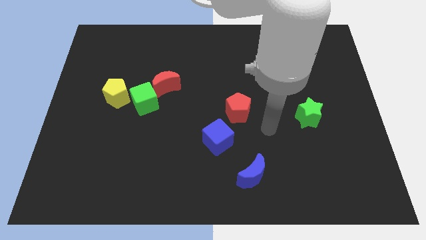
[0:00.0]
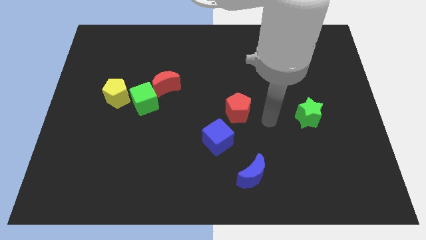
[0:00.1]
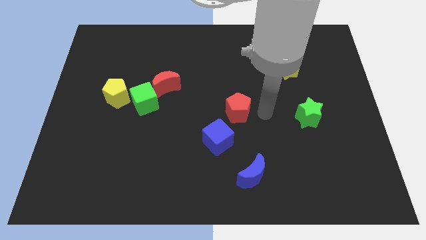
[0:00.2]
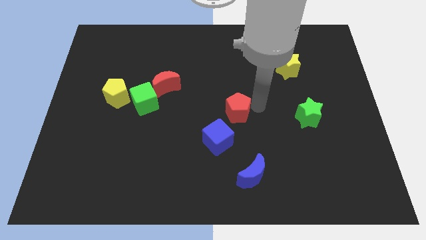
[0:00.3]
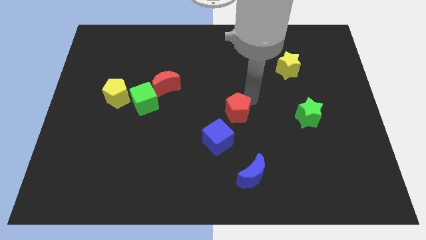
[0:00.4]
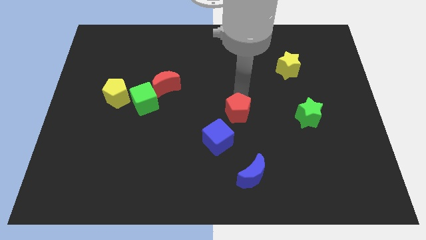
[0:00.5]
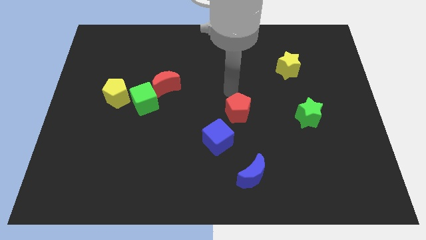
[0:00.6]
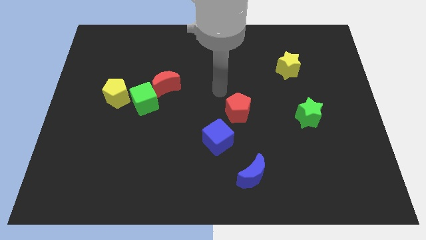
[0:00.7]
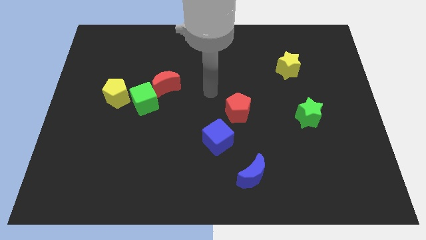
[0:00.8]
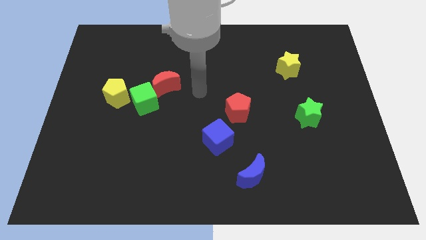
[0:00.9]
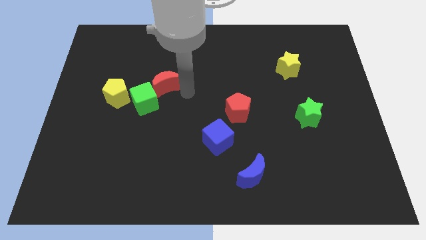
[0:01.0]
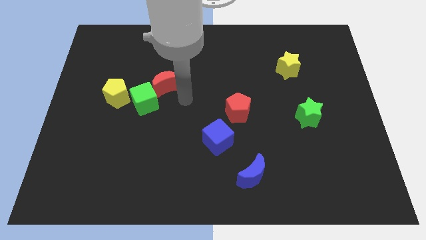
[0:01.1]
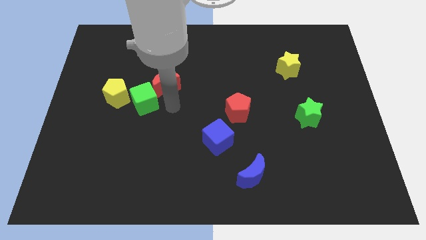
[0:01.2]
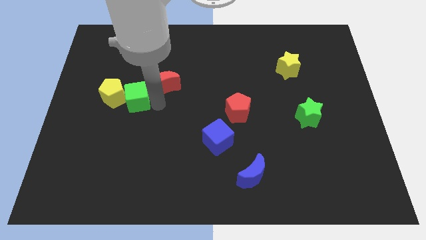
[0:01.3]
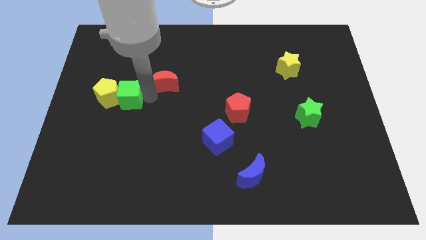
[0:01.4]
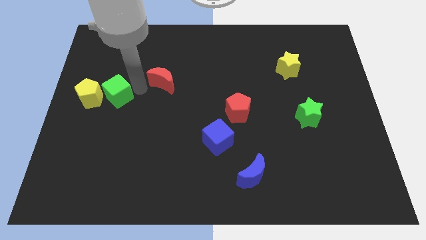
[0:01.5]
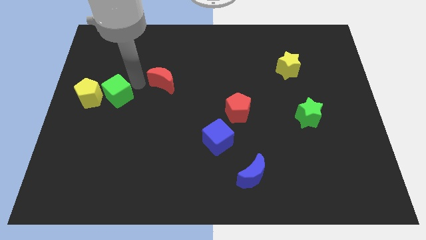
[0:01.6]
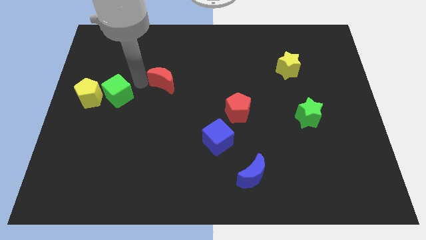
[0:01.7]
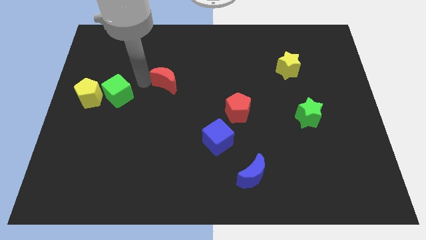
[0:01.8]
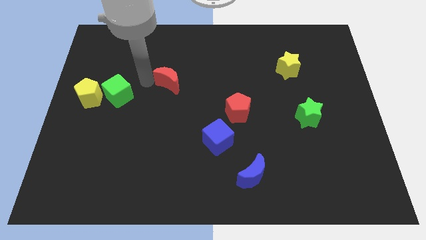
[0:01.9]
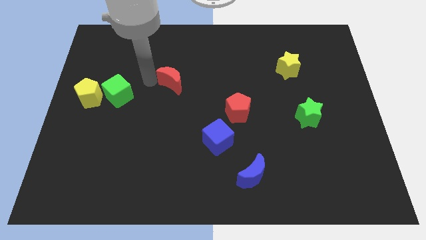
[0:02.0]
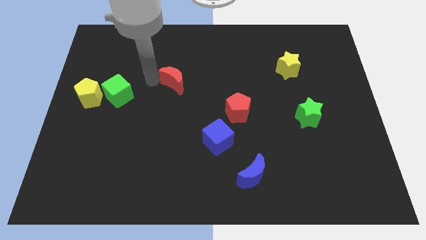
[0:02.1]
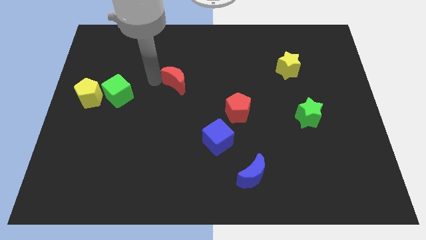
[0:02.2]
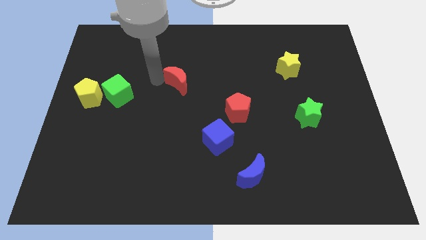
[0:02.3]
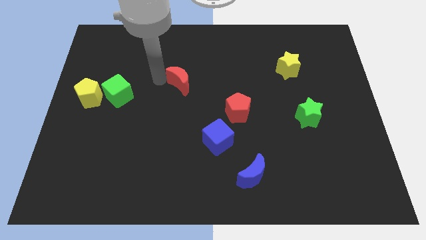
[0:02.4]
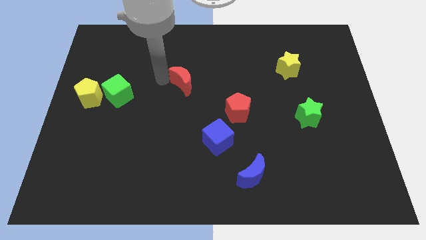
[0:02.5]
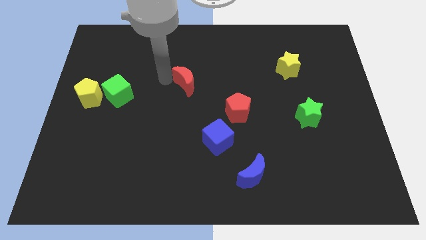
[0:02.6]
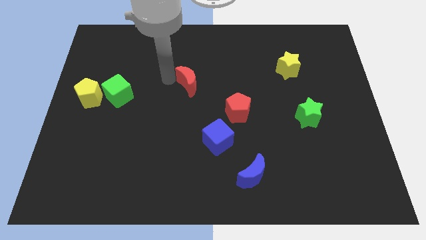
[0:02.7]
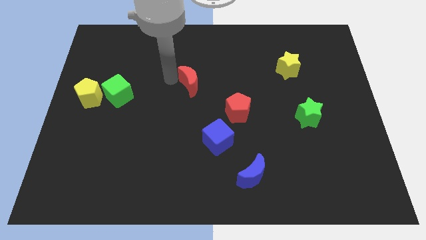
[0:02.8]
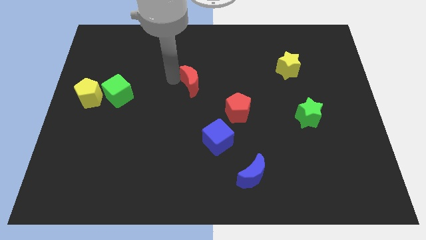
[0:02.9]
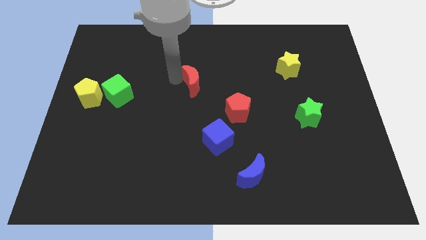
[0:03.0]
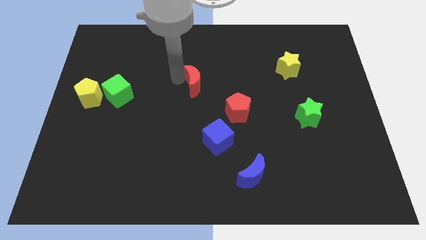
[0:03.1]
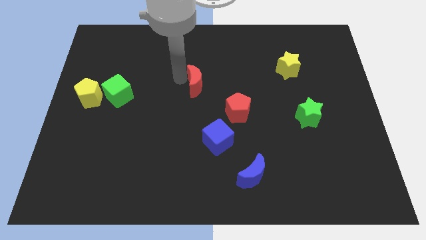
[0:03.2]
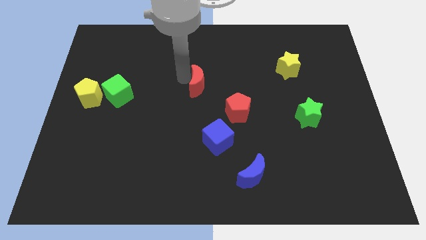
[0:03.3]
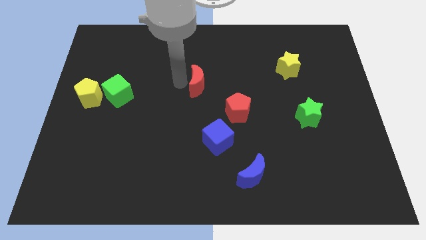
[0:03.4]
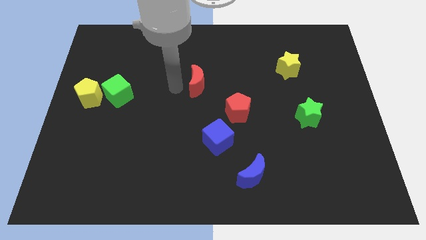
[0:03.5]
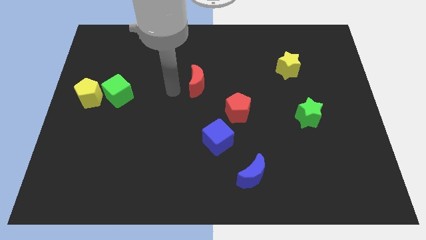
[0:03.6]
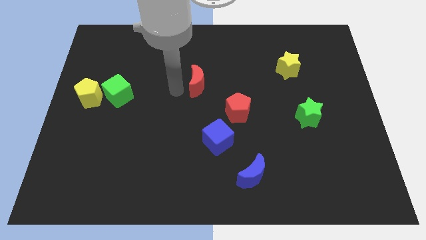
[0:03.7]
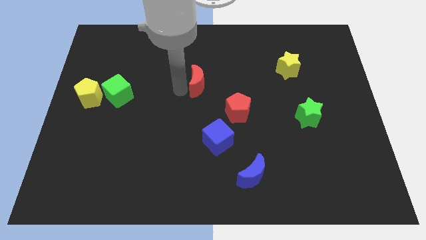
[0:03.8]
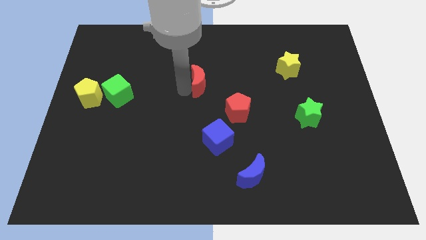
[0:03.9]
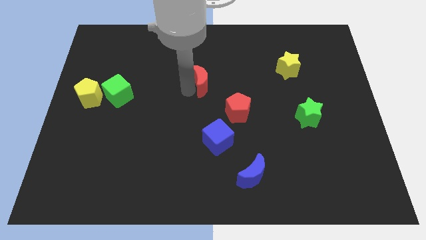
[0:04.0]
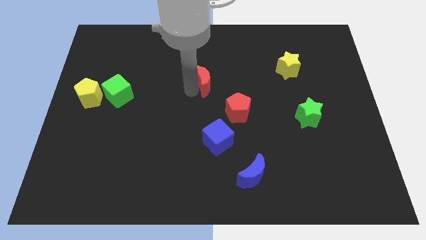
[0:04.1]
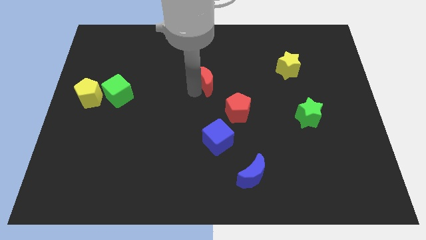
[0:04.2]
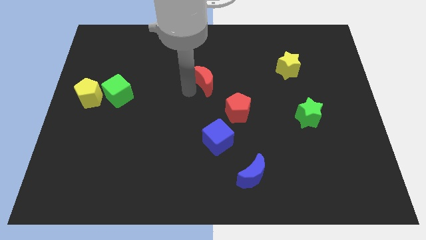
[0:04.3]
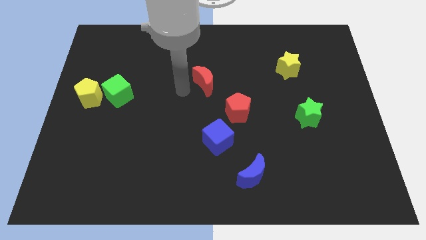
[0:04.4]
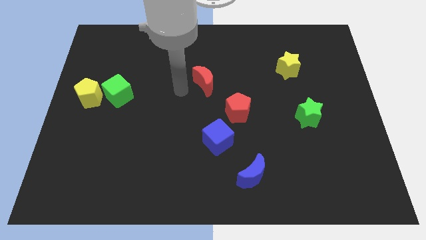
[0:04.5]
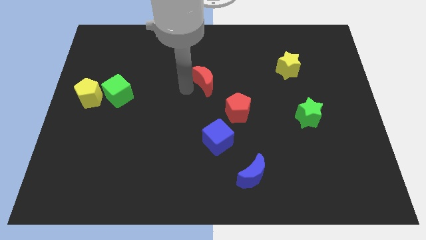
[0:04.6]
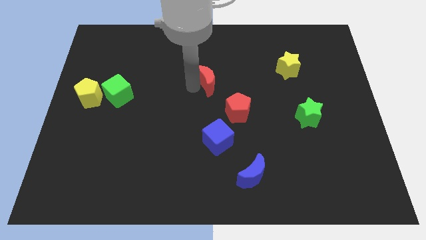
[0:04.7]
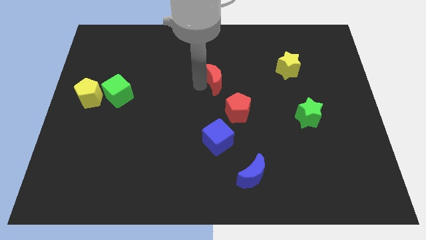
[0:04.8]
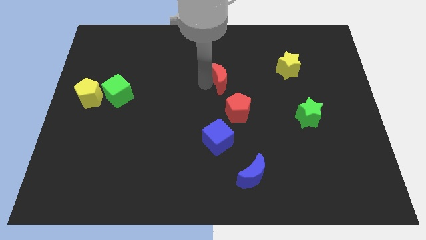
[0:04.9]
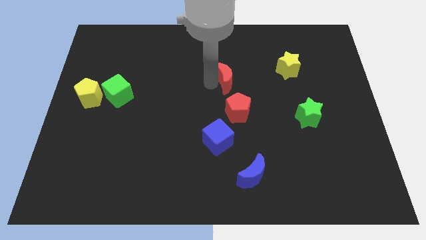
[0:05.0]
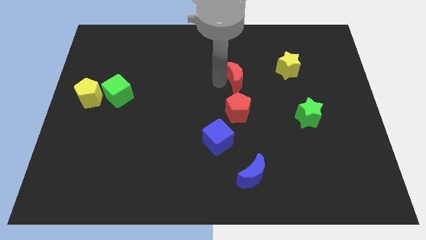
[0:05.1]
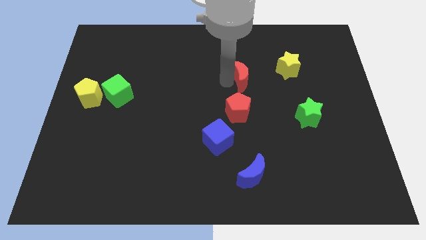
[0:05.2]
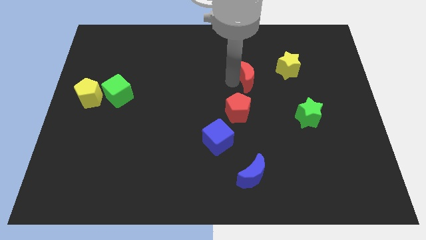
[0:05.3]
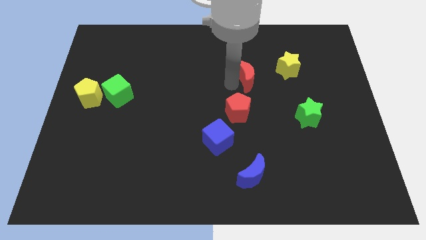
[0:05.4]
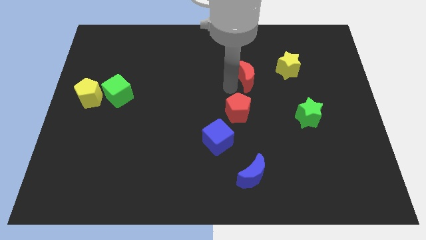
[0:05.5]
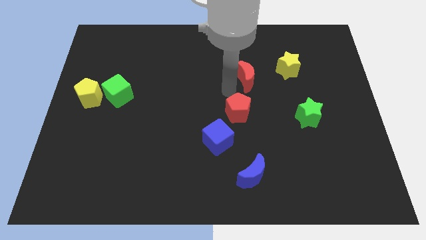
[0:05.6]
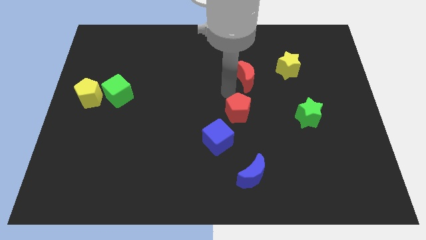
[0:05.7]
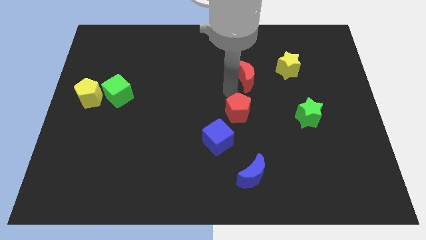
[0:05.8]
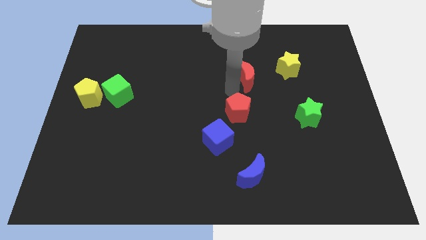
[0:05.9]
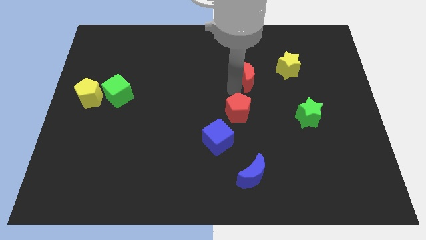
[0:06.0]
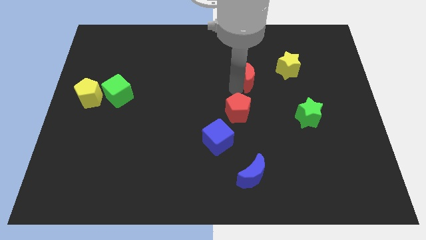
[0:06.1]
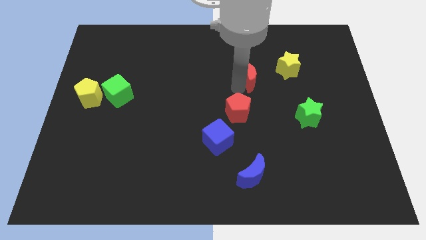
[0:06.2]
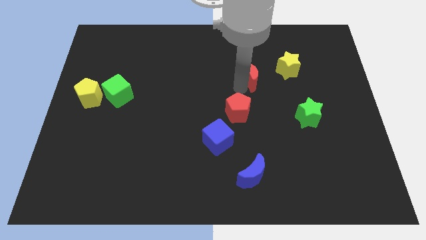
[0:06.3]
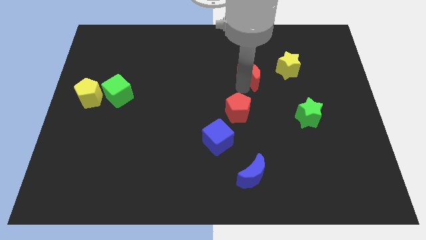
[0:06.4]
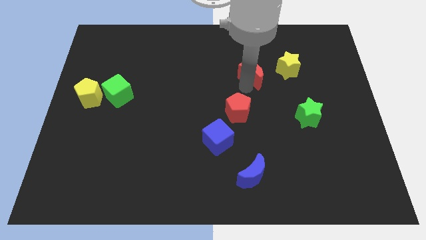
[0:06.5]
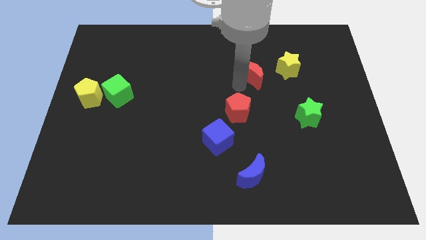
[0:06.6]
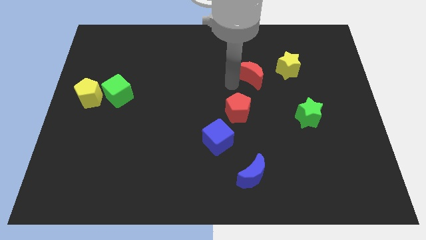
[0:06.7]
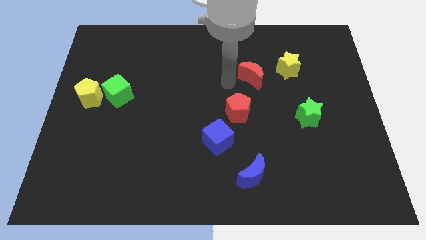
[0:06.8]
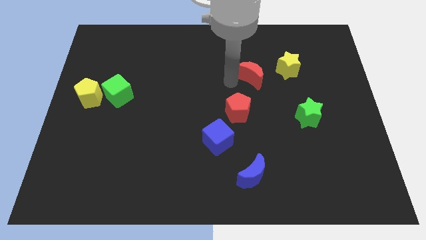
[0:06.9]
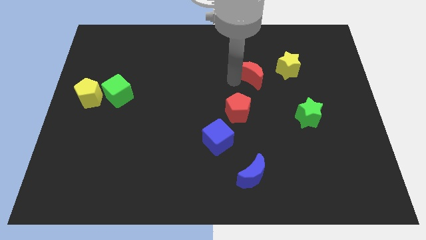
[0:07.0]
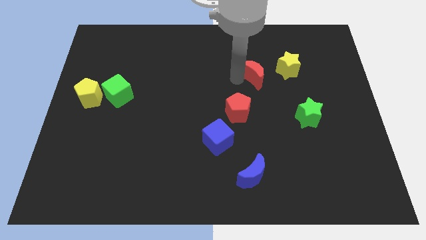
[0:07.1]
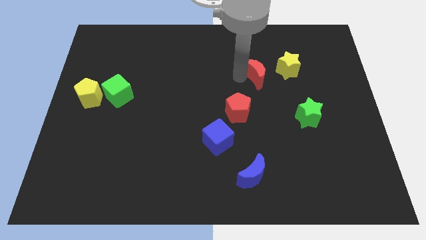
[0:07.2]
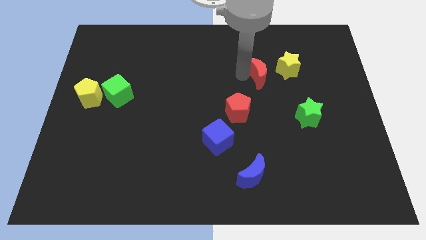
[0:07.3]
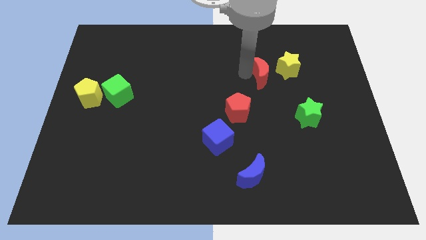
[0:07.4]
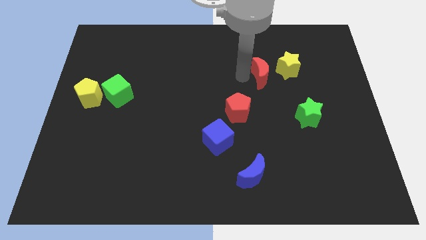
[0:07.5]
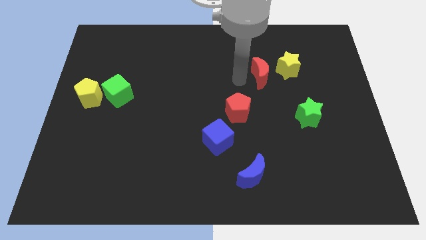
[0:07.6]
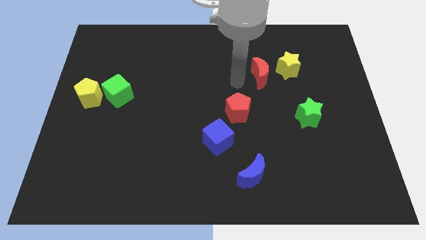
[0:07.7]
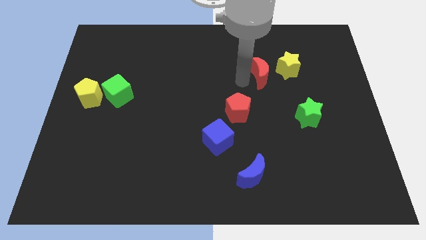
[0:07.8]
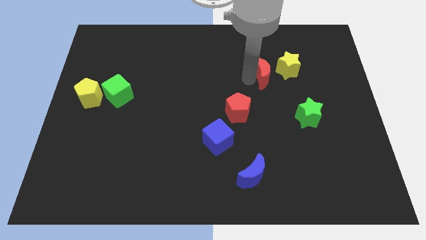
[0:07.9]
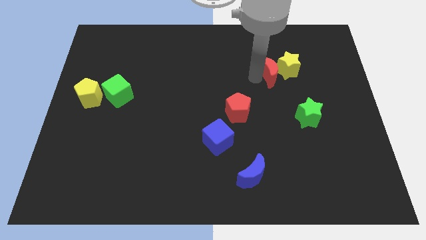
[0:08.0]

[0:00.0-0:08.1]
move the red moon close to the yellow star
